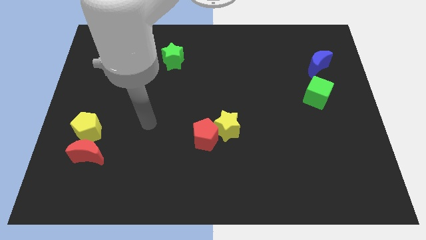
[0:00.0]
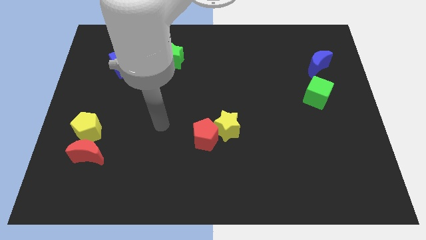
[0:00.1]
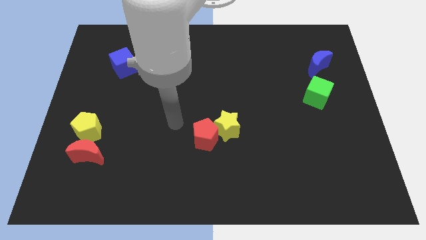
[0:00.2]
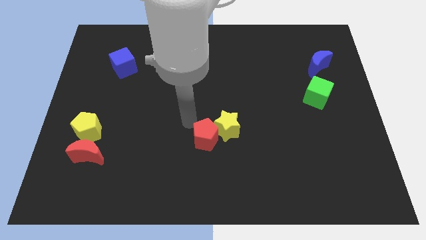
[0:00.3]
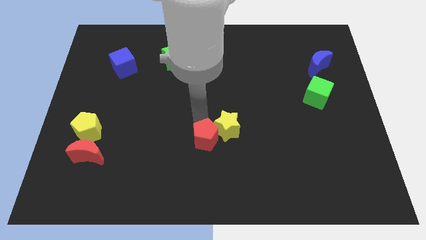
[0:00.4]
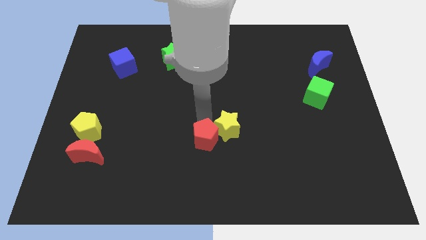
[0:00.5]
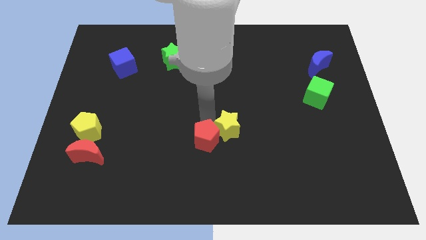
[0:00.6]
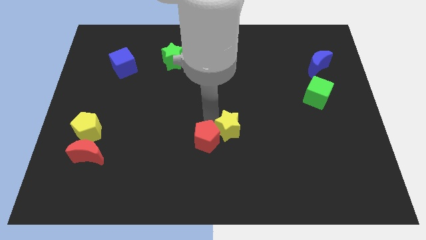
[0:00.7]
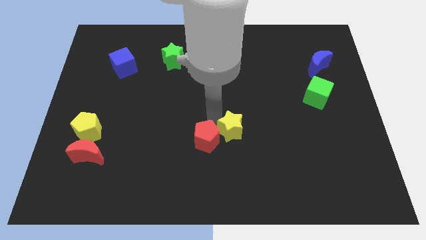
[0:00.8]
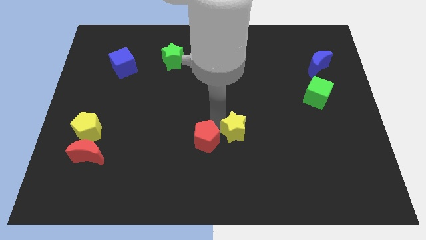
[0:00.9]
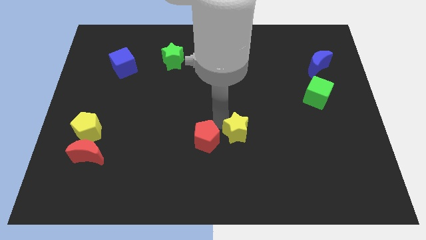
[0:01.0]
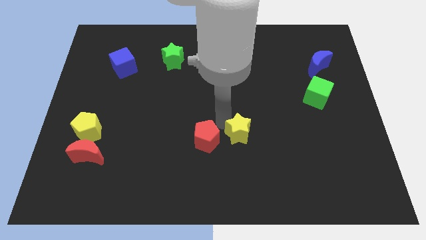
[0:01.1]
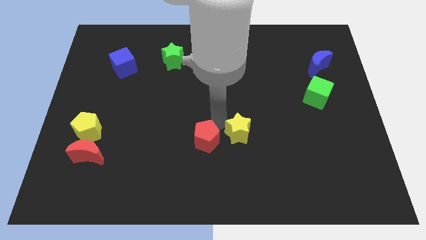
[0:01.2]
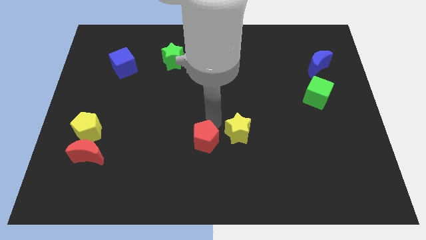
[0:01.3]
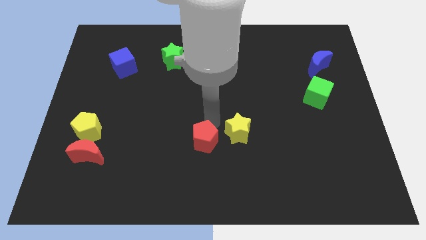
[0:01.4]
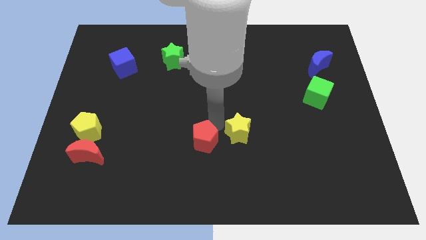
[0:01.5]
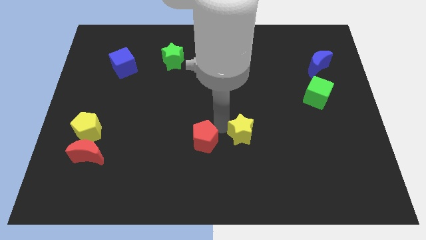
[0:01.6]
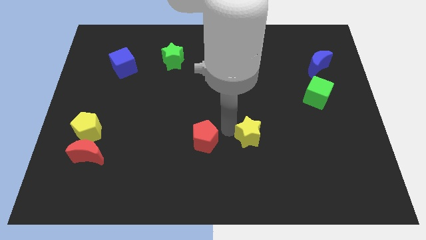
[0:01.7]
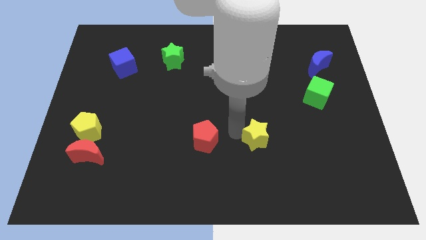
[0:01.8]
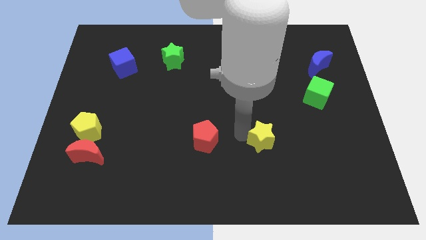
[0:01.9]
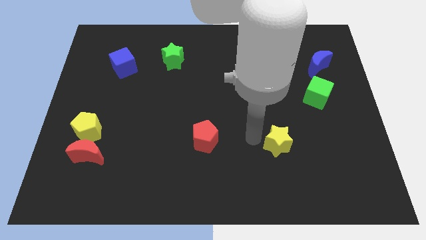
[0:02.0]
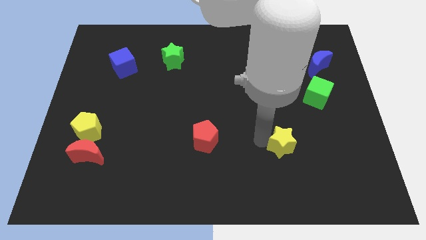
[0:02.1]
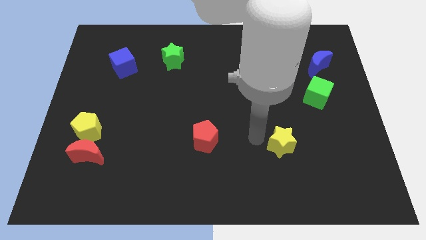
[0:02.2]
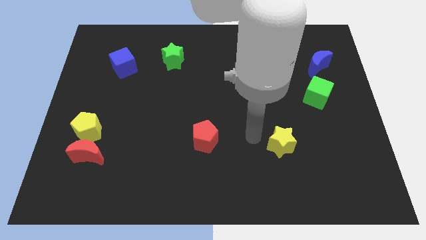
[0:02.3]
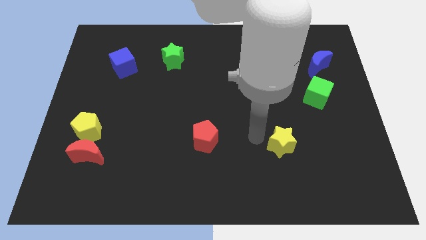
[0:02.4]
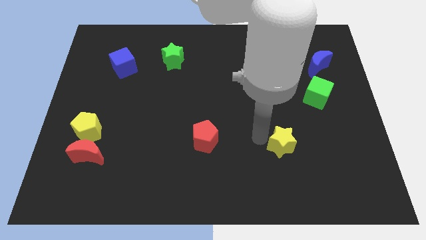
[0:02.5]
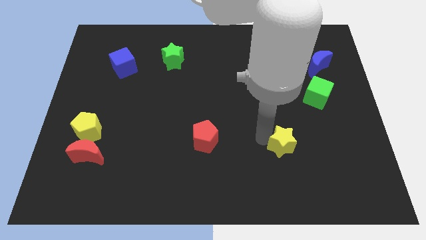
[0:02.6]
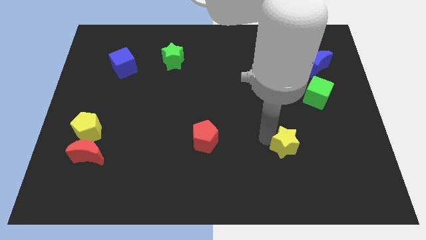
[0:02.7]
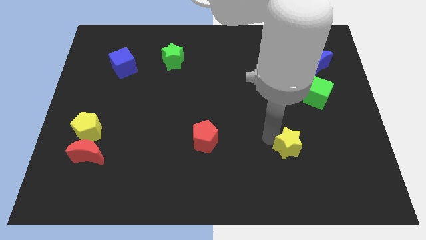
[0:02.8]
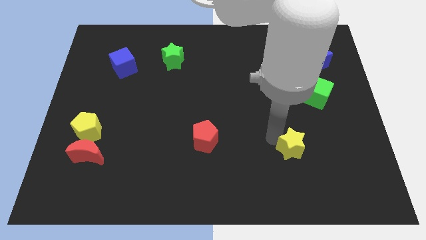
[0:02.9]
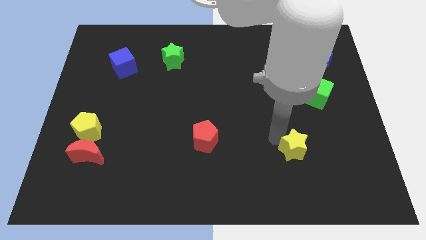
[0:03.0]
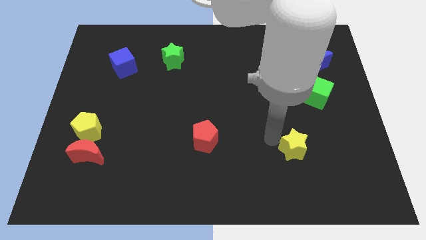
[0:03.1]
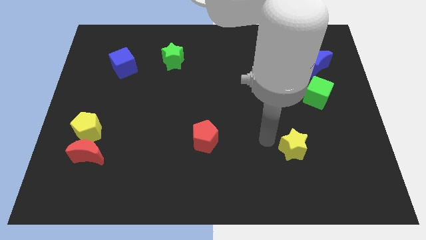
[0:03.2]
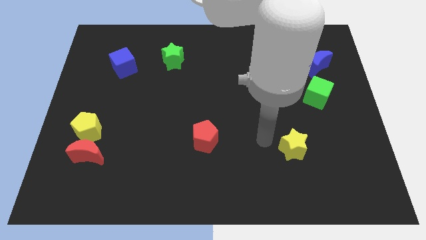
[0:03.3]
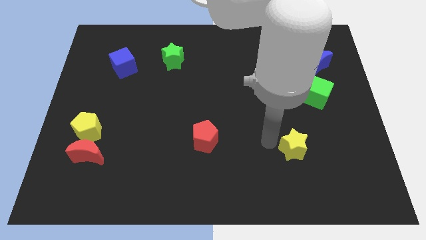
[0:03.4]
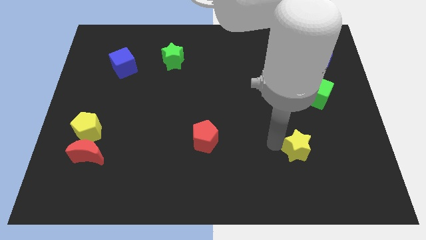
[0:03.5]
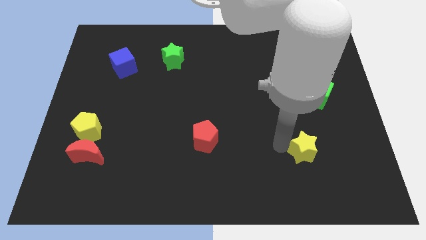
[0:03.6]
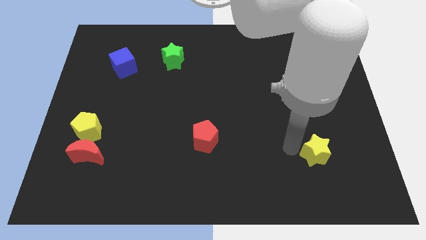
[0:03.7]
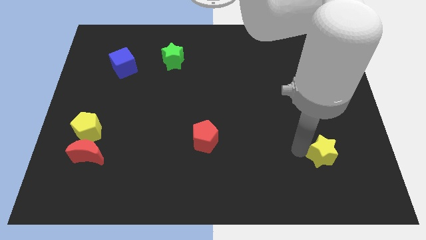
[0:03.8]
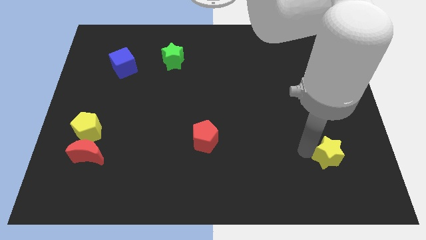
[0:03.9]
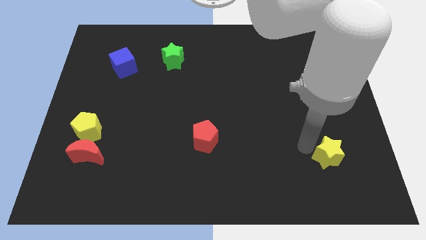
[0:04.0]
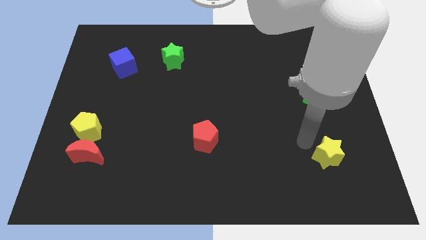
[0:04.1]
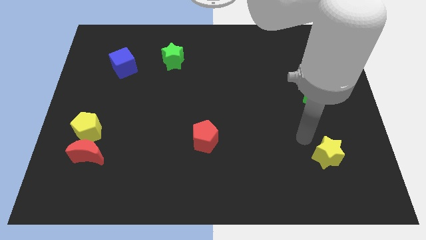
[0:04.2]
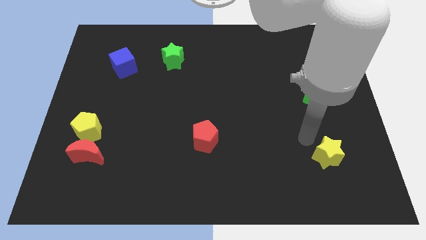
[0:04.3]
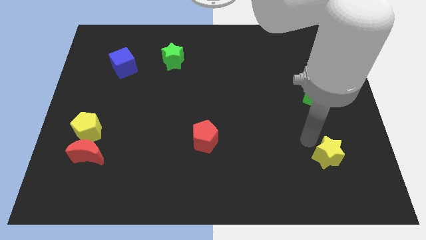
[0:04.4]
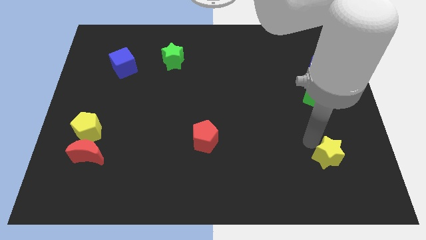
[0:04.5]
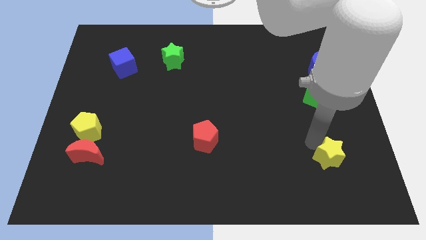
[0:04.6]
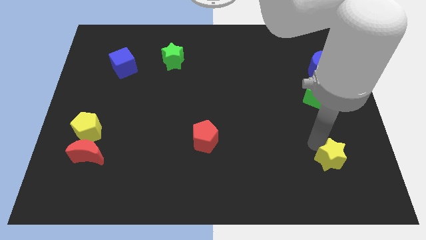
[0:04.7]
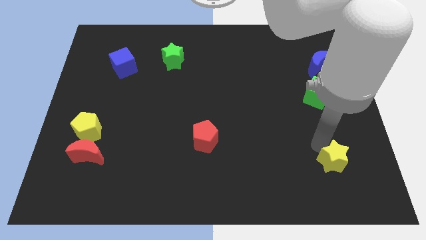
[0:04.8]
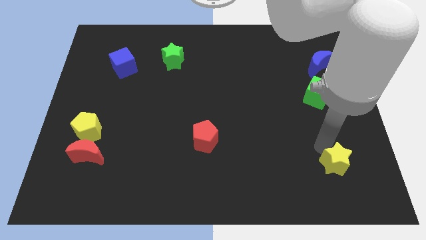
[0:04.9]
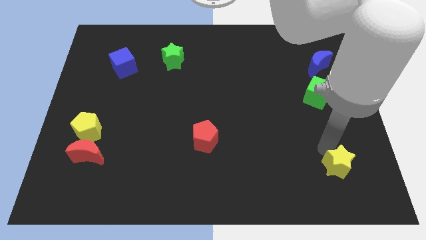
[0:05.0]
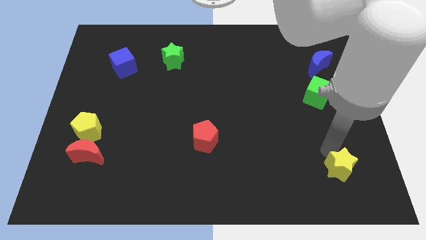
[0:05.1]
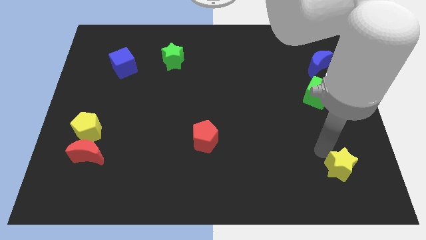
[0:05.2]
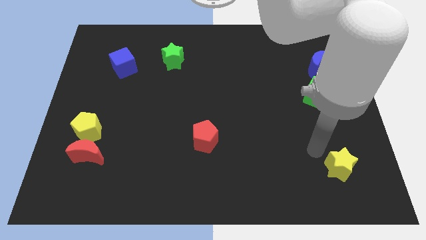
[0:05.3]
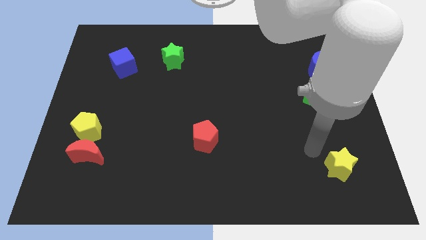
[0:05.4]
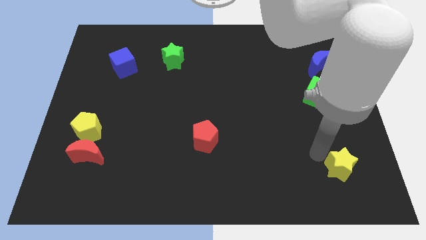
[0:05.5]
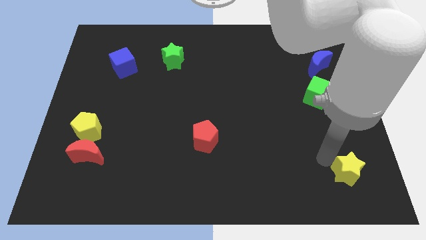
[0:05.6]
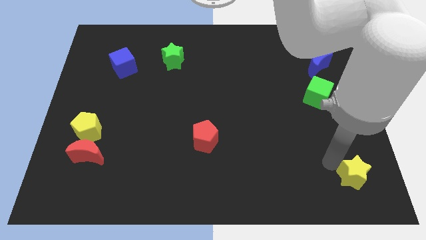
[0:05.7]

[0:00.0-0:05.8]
put the yellow star to the bottom right of the board
